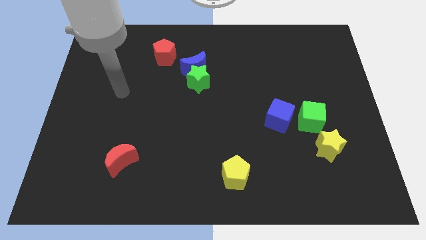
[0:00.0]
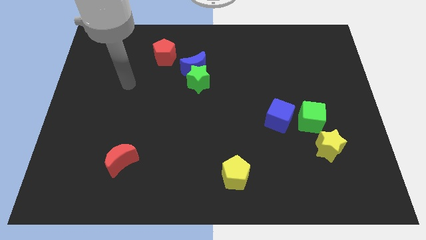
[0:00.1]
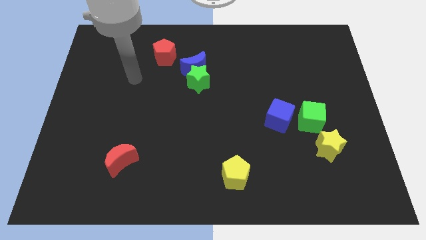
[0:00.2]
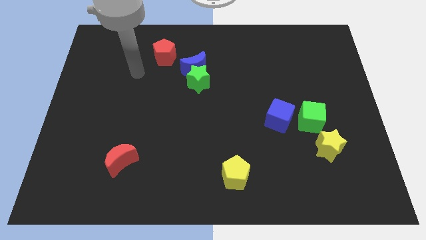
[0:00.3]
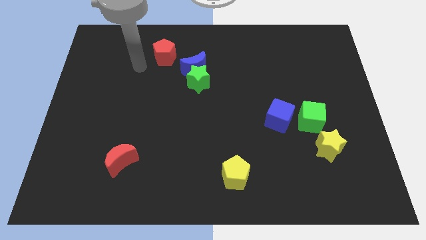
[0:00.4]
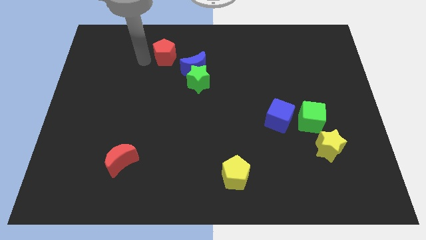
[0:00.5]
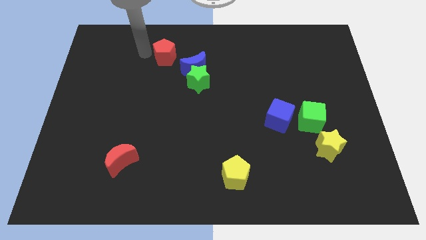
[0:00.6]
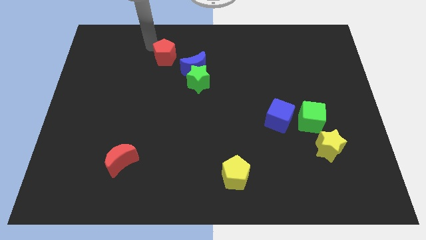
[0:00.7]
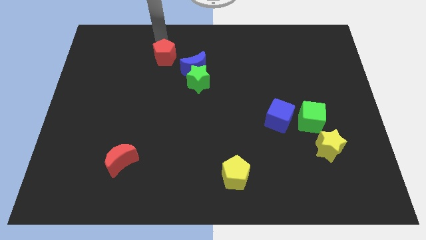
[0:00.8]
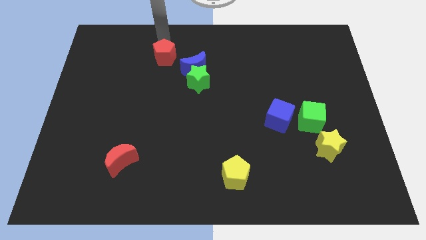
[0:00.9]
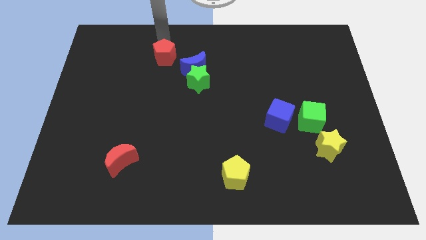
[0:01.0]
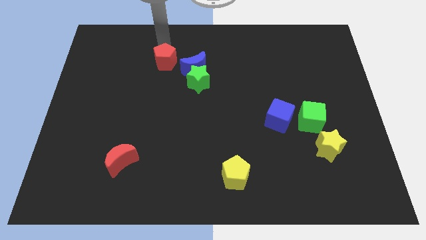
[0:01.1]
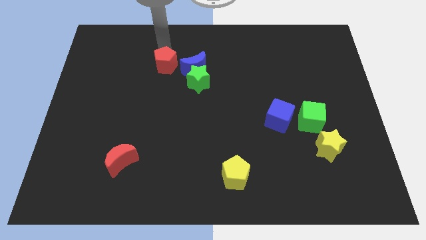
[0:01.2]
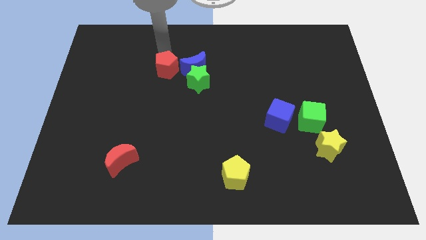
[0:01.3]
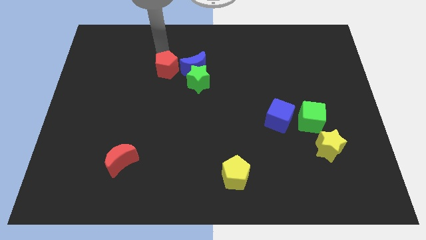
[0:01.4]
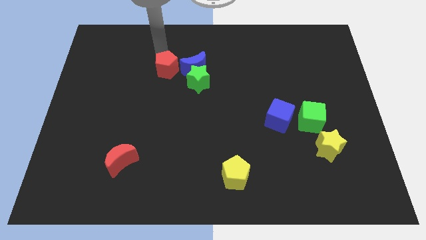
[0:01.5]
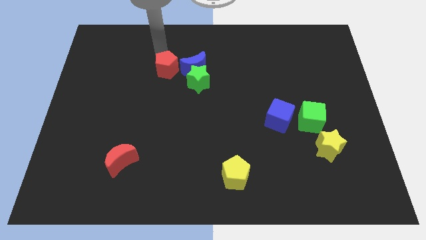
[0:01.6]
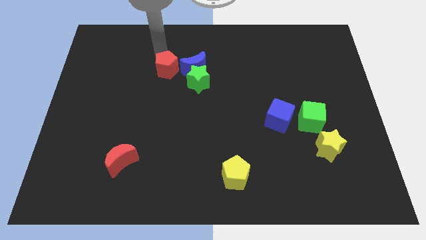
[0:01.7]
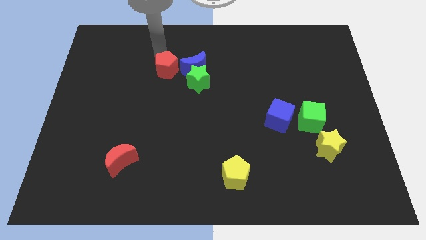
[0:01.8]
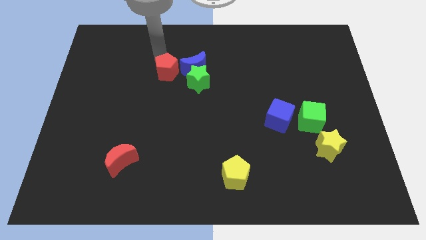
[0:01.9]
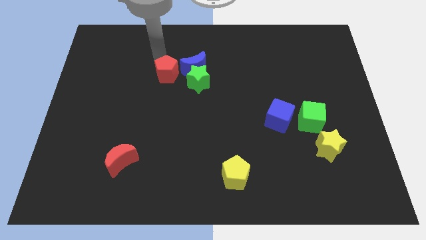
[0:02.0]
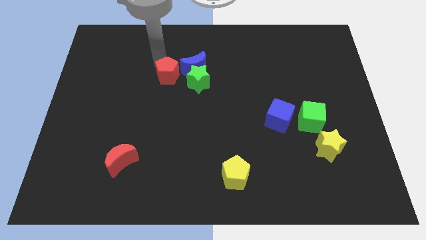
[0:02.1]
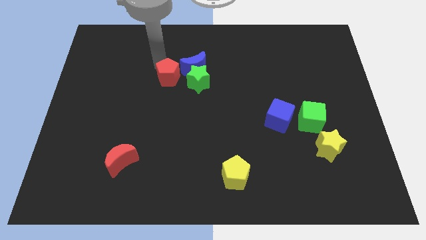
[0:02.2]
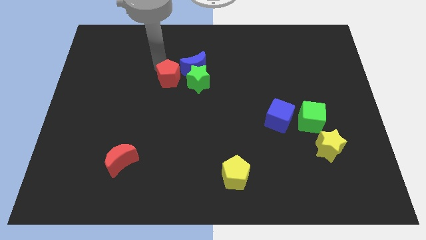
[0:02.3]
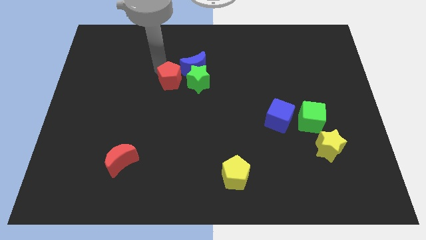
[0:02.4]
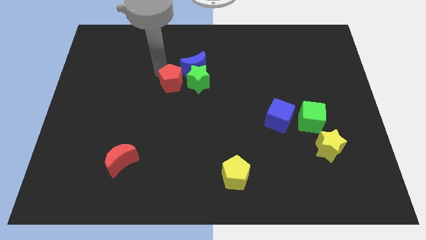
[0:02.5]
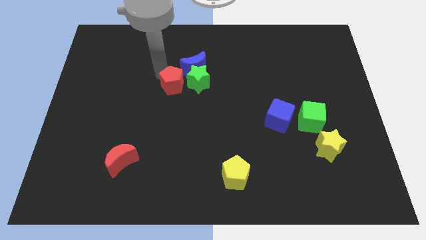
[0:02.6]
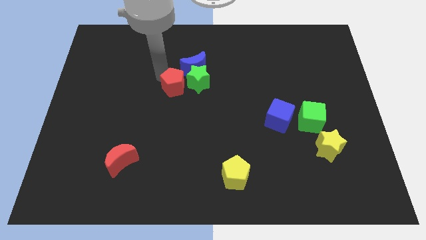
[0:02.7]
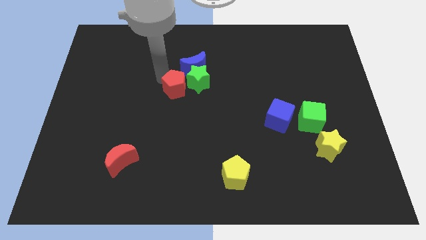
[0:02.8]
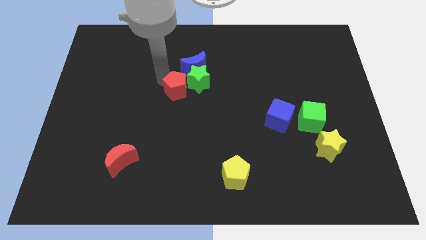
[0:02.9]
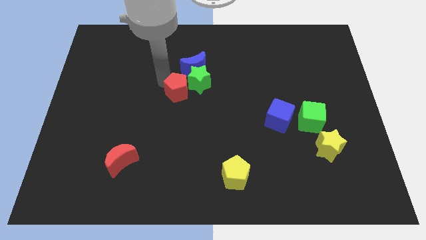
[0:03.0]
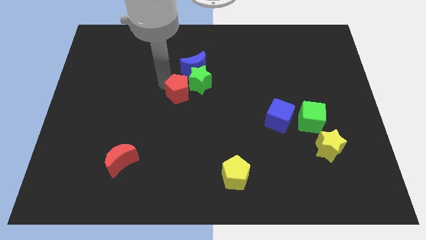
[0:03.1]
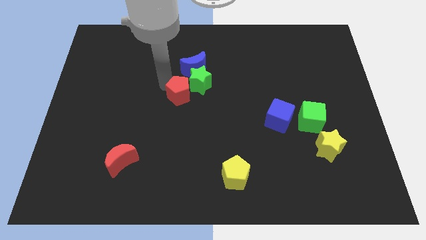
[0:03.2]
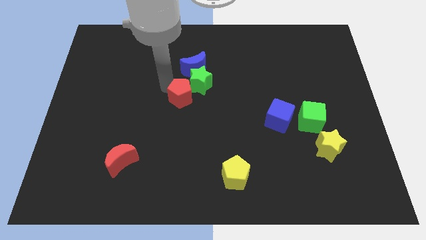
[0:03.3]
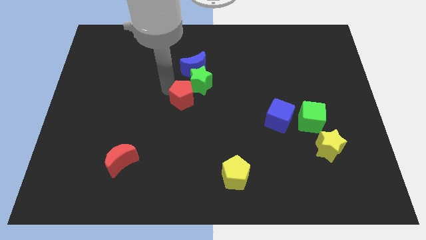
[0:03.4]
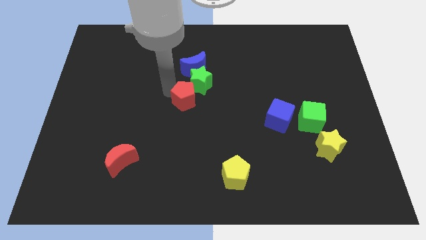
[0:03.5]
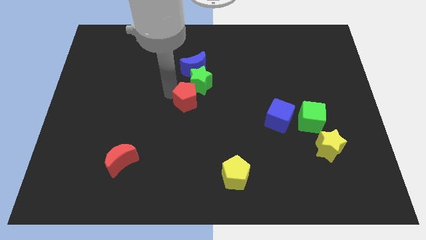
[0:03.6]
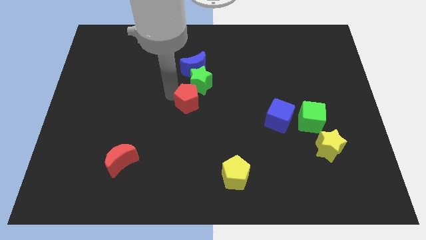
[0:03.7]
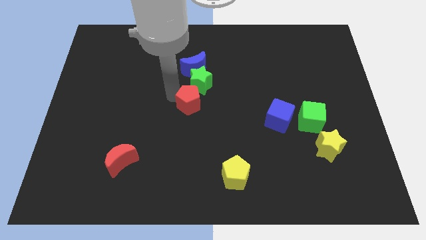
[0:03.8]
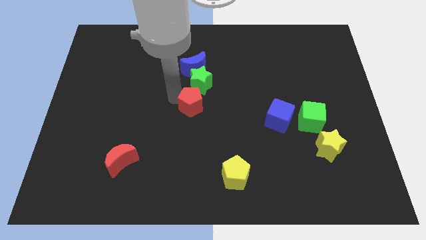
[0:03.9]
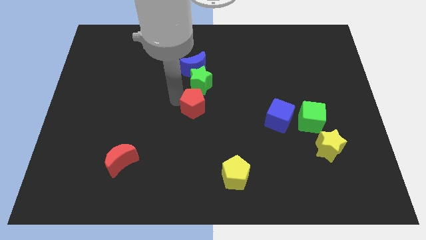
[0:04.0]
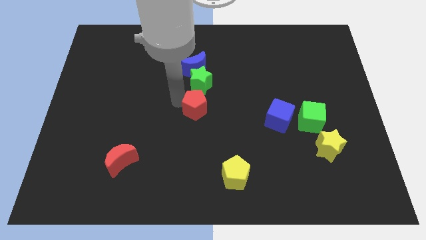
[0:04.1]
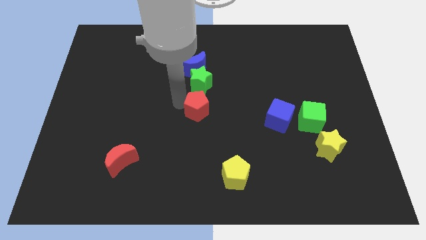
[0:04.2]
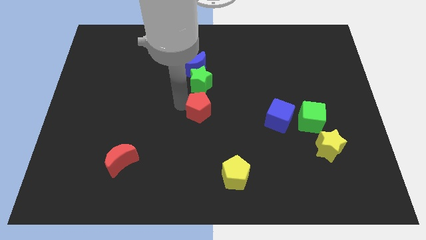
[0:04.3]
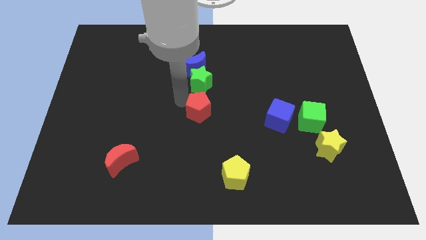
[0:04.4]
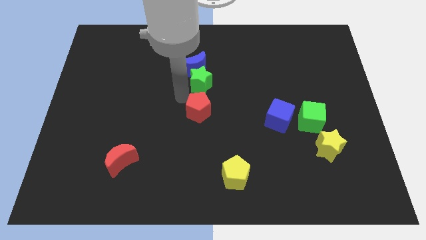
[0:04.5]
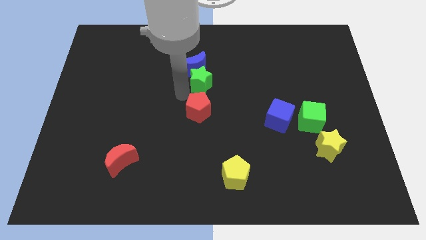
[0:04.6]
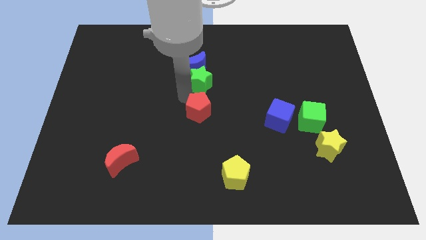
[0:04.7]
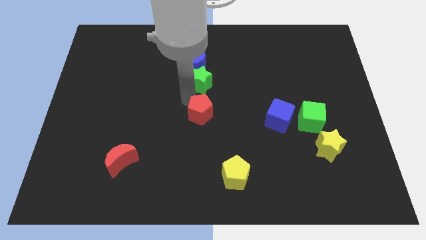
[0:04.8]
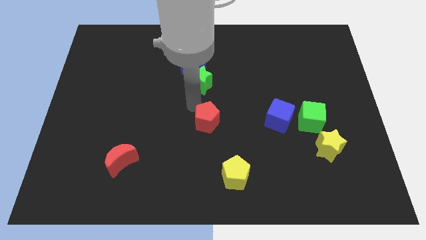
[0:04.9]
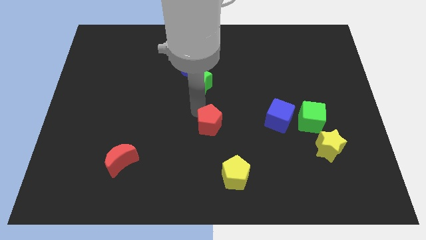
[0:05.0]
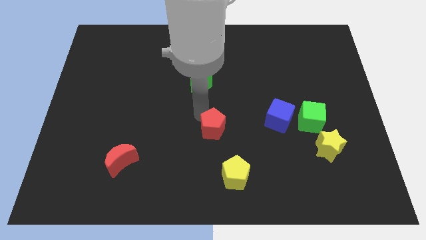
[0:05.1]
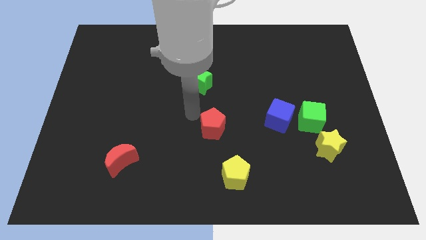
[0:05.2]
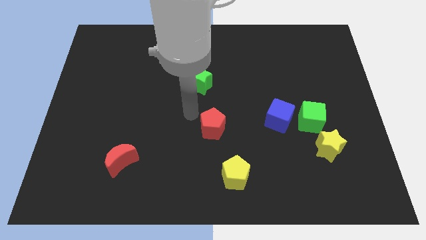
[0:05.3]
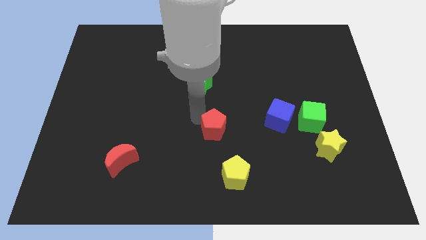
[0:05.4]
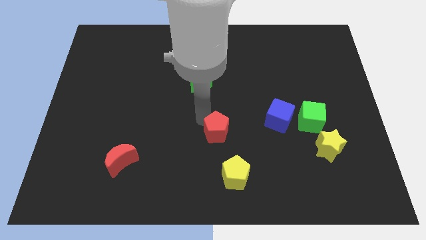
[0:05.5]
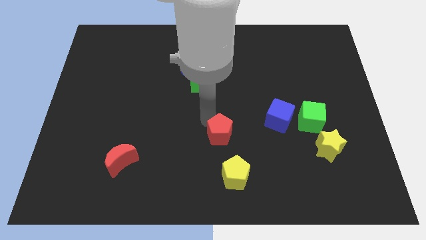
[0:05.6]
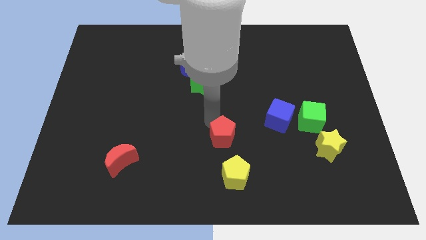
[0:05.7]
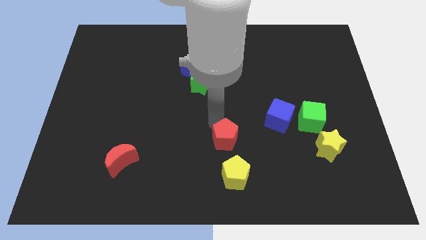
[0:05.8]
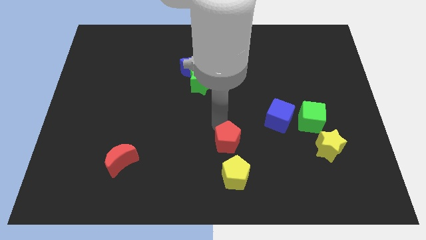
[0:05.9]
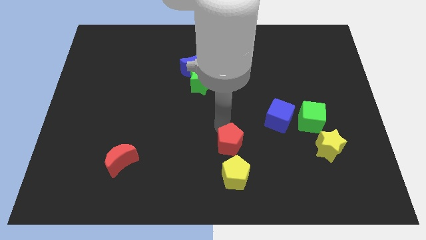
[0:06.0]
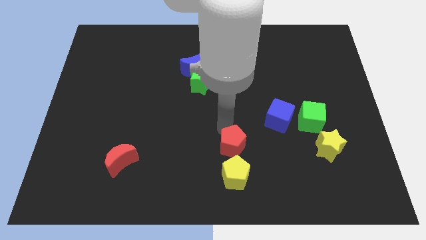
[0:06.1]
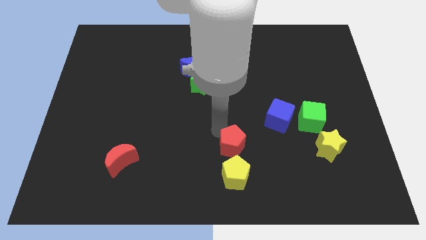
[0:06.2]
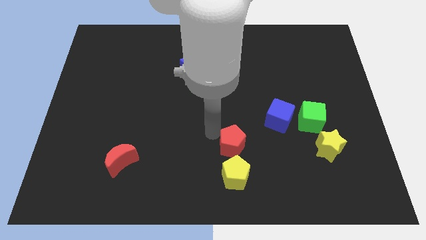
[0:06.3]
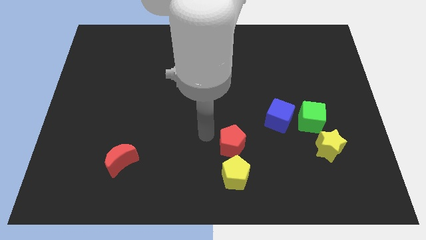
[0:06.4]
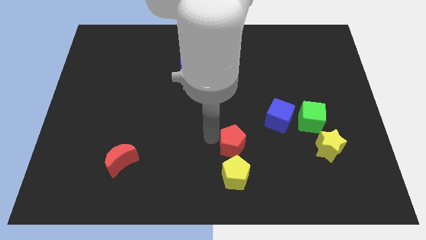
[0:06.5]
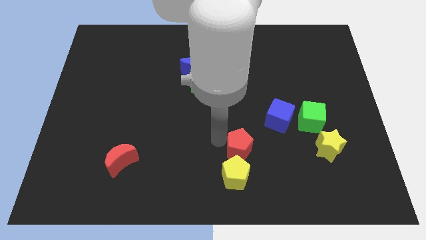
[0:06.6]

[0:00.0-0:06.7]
push the red pentagon to the top right of the yellow pentagon
